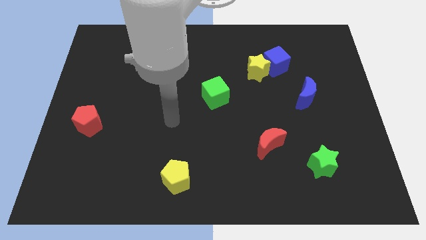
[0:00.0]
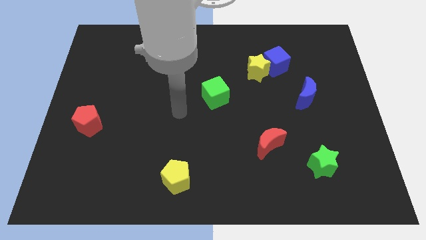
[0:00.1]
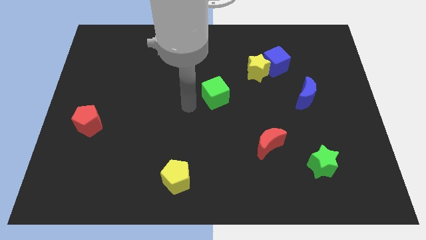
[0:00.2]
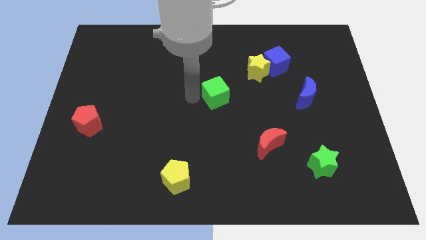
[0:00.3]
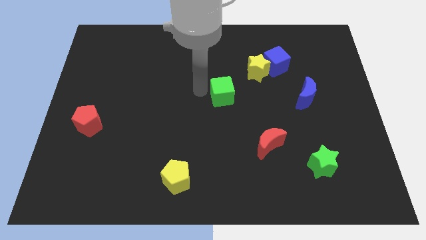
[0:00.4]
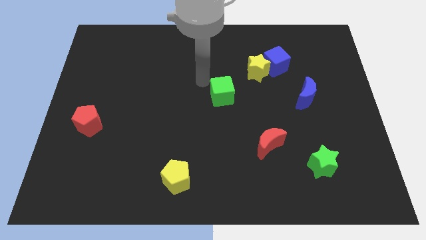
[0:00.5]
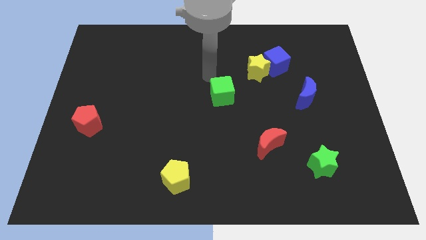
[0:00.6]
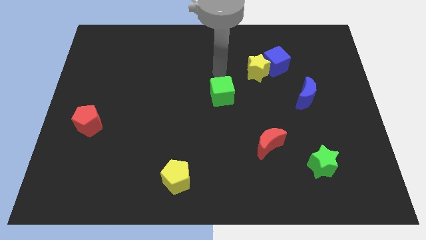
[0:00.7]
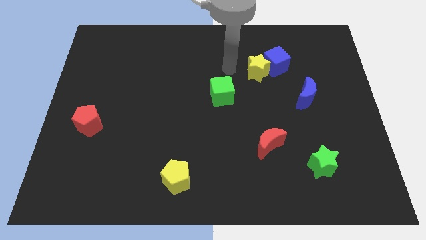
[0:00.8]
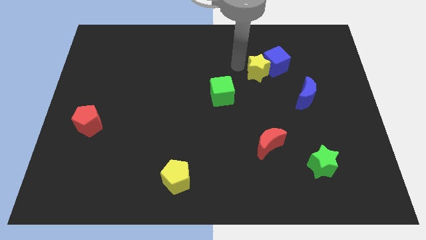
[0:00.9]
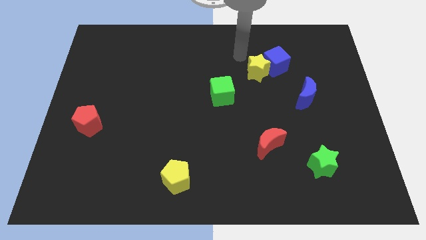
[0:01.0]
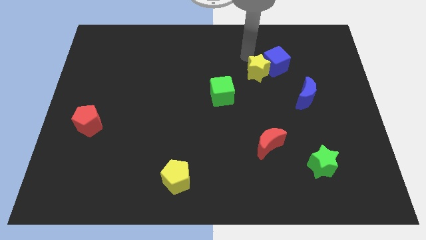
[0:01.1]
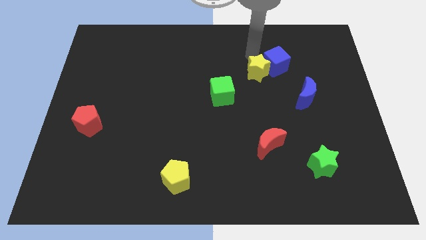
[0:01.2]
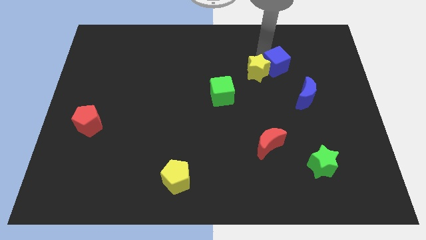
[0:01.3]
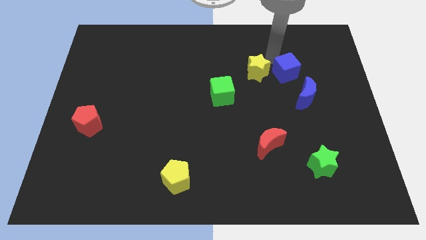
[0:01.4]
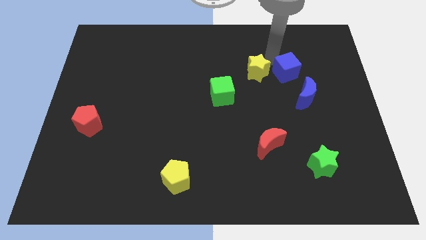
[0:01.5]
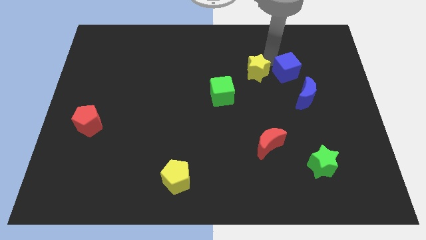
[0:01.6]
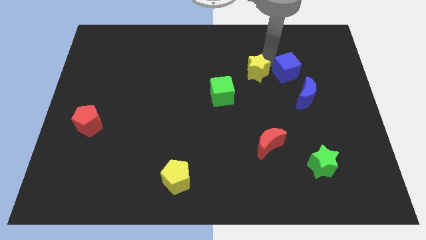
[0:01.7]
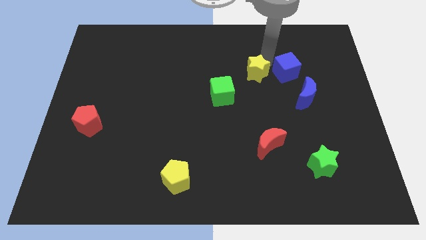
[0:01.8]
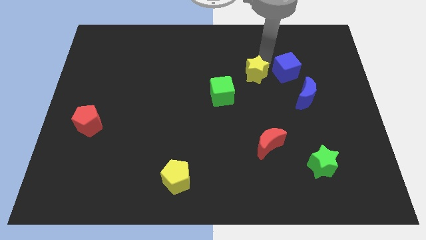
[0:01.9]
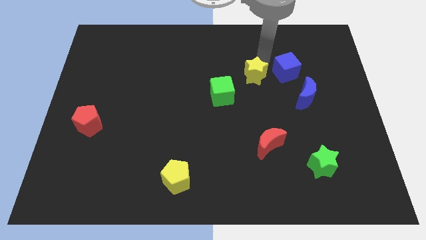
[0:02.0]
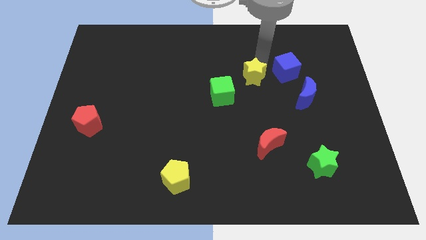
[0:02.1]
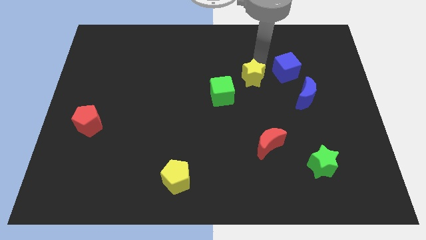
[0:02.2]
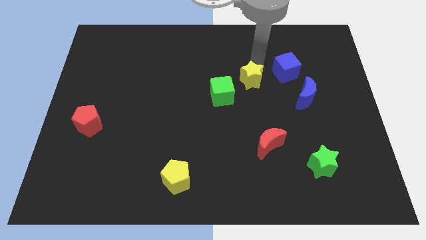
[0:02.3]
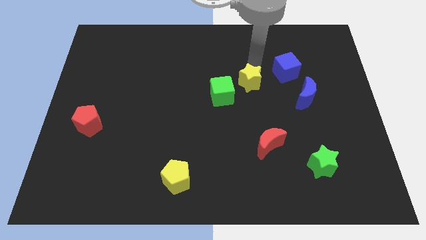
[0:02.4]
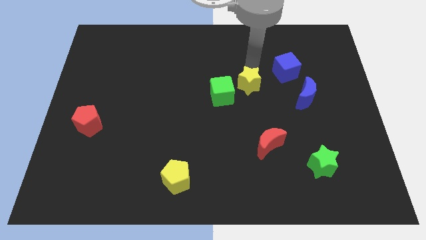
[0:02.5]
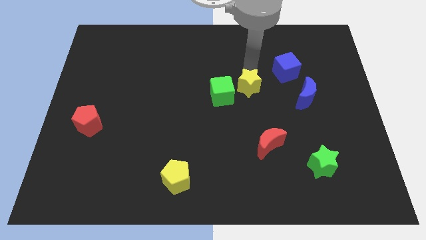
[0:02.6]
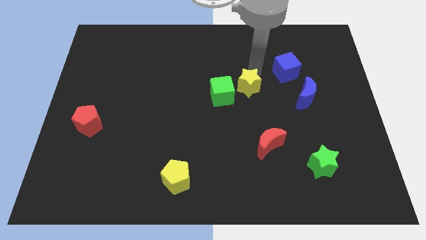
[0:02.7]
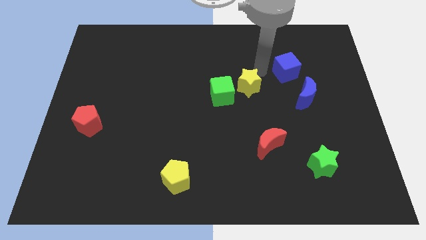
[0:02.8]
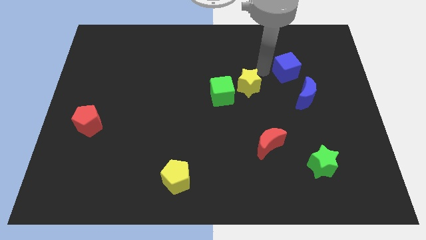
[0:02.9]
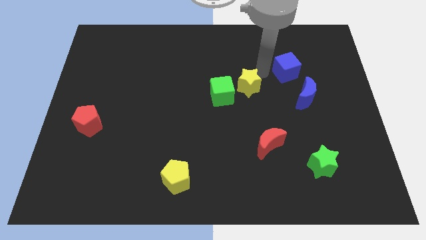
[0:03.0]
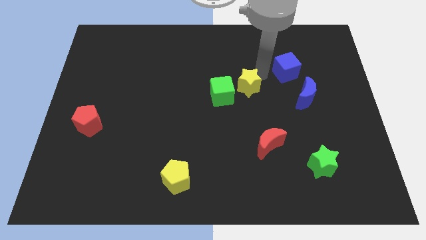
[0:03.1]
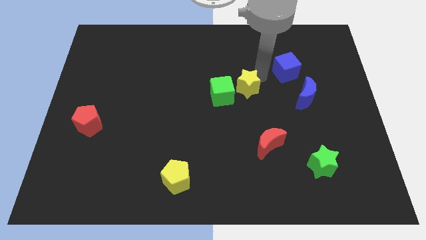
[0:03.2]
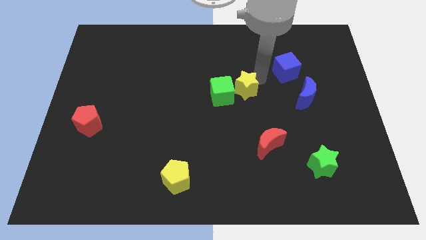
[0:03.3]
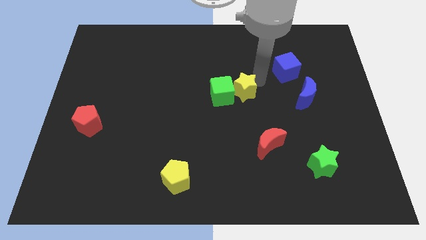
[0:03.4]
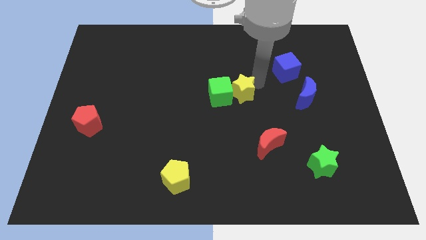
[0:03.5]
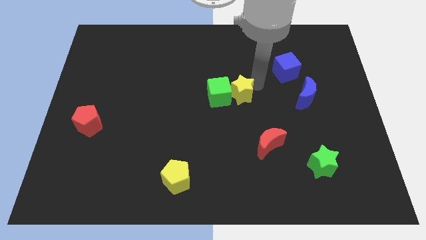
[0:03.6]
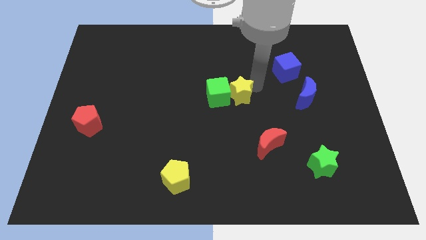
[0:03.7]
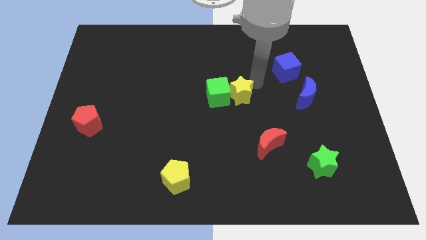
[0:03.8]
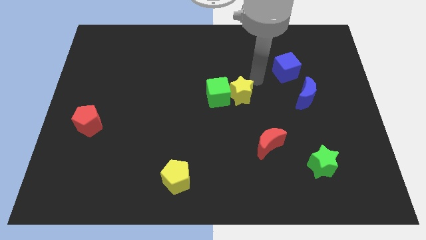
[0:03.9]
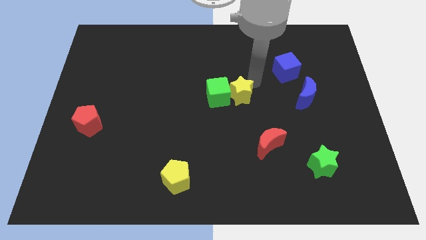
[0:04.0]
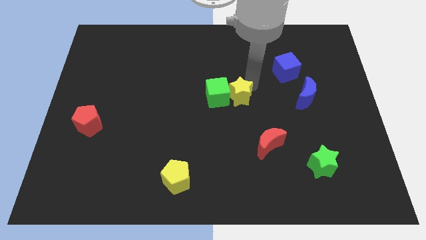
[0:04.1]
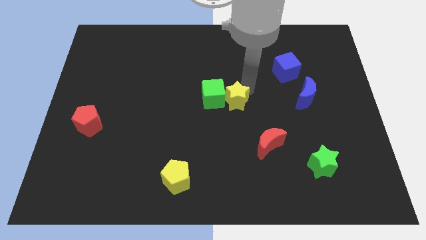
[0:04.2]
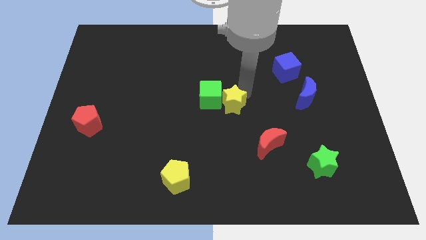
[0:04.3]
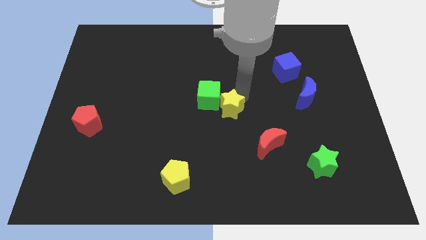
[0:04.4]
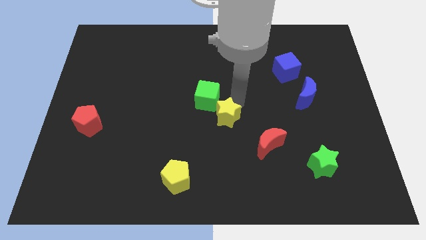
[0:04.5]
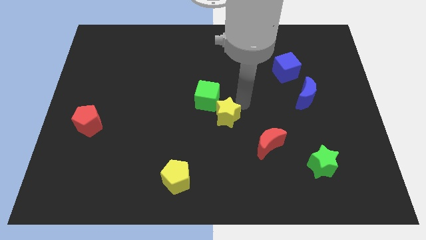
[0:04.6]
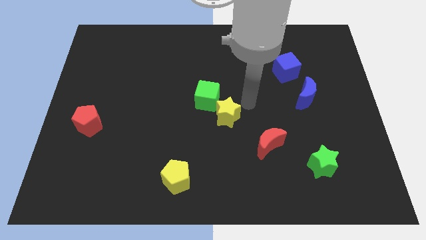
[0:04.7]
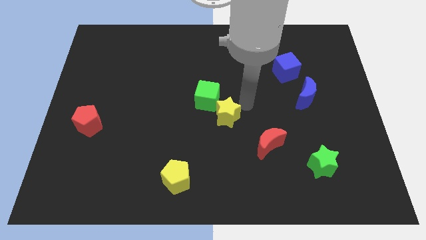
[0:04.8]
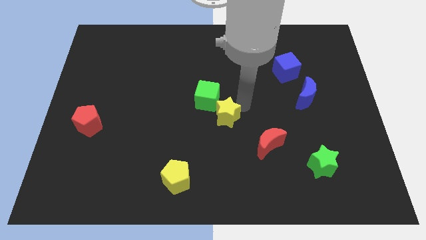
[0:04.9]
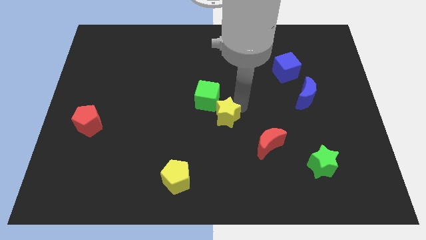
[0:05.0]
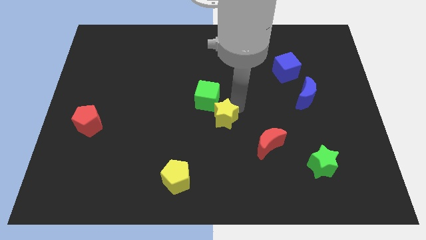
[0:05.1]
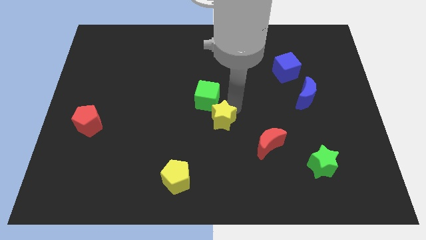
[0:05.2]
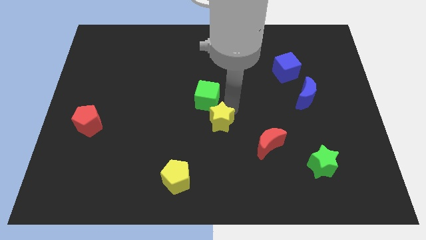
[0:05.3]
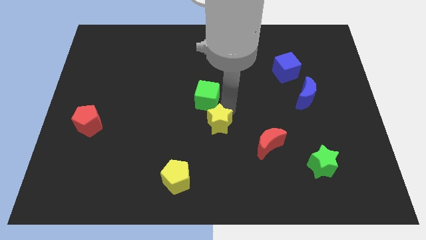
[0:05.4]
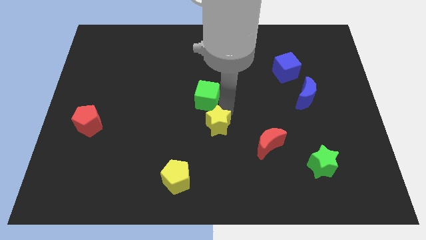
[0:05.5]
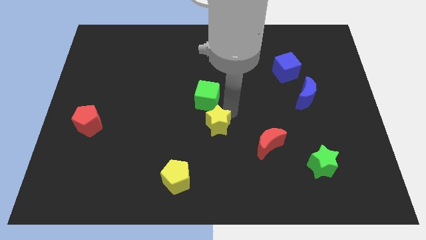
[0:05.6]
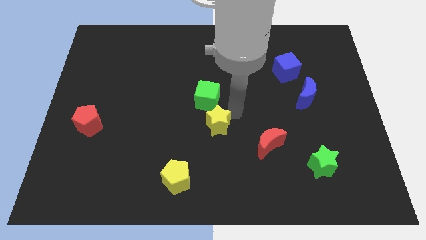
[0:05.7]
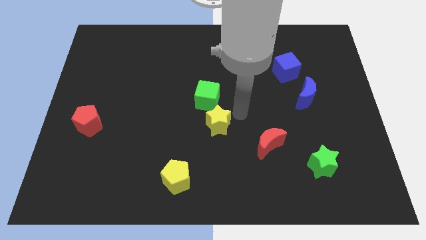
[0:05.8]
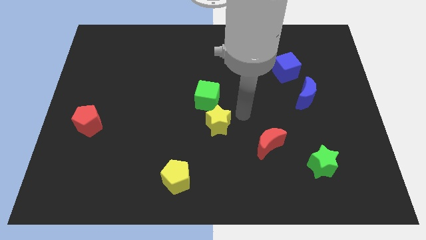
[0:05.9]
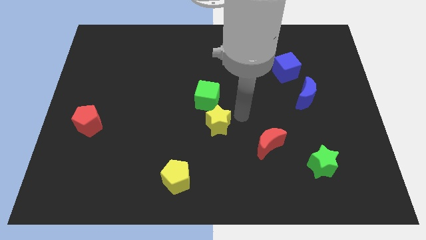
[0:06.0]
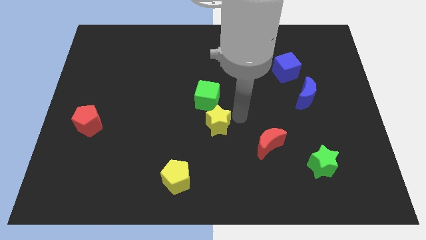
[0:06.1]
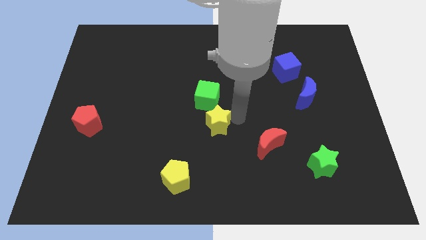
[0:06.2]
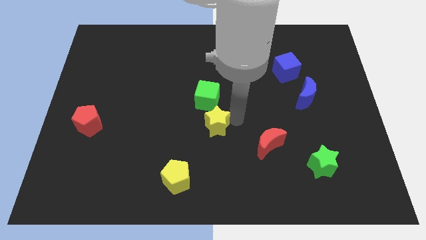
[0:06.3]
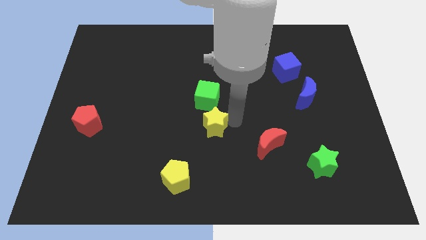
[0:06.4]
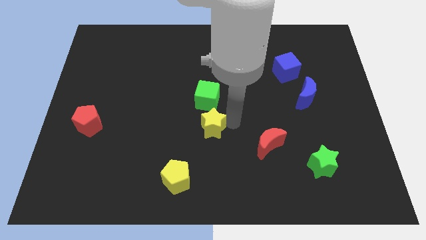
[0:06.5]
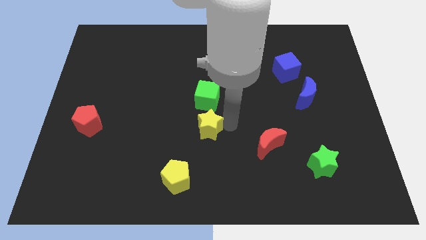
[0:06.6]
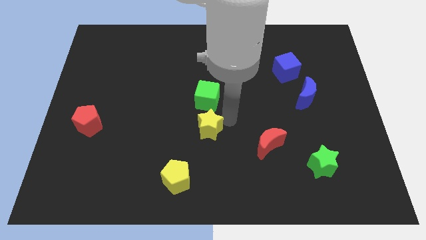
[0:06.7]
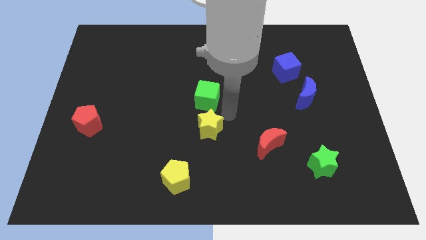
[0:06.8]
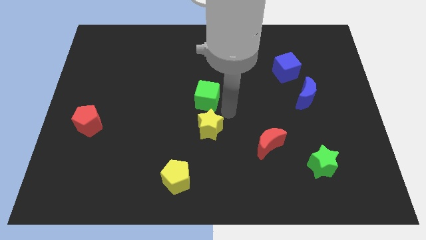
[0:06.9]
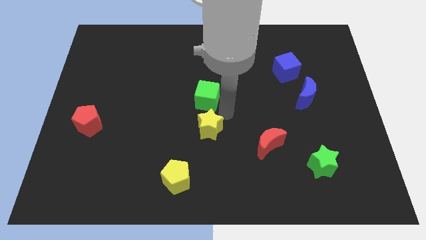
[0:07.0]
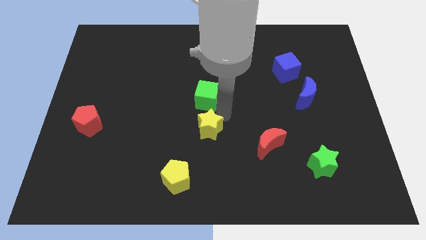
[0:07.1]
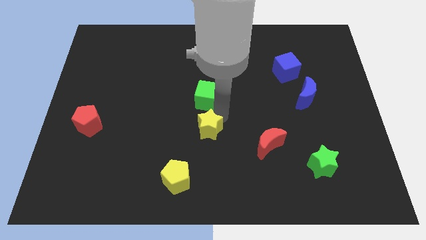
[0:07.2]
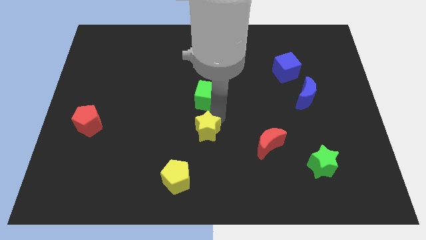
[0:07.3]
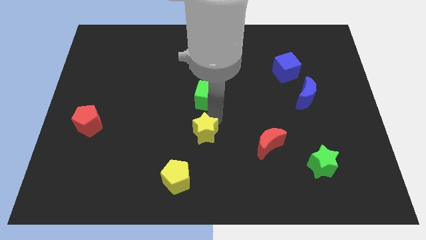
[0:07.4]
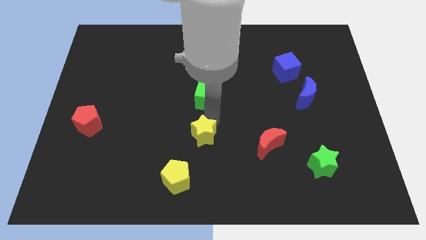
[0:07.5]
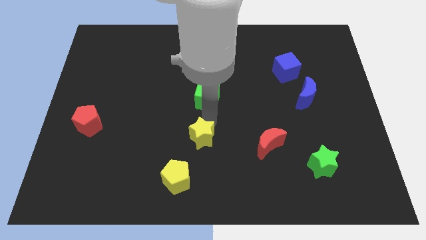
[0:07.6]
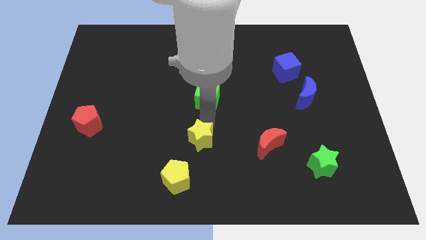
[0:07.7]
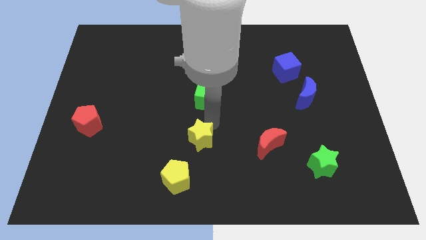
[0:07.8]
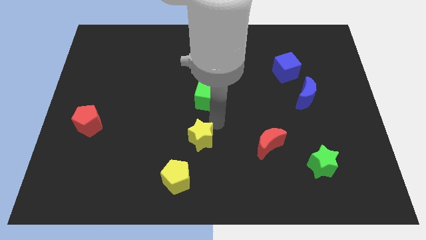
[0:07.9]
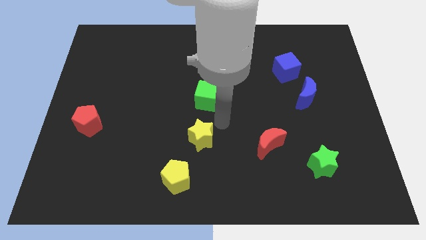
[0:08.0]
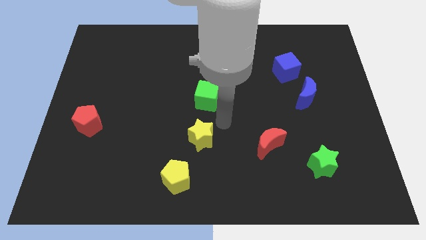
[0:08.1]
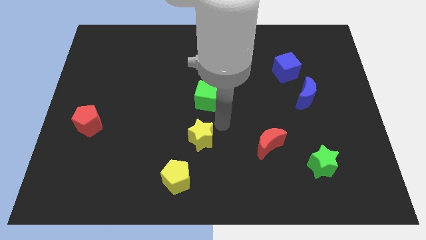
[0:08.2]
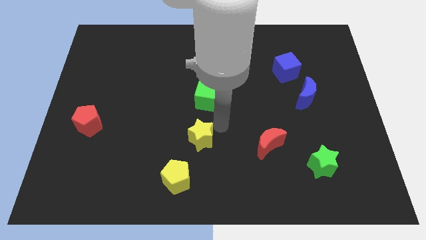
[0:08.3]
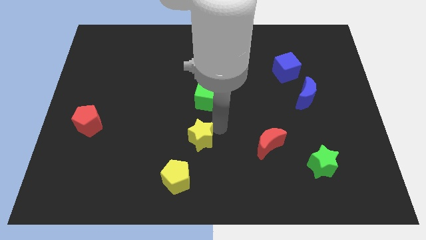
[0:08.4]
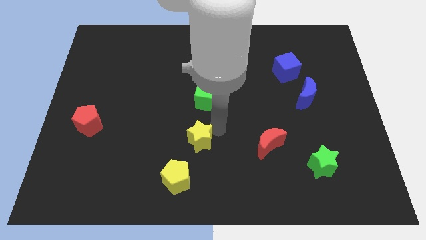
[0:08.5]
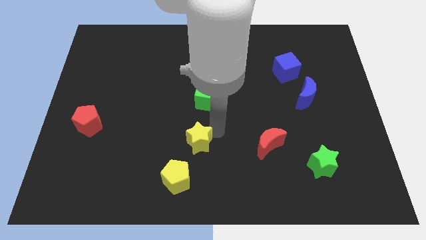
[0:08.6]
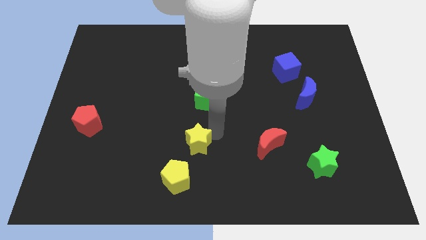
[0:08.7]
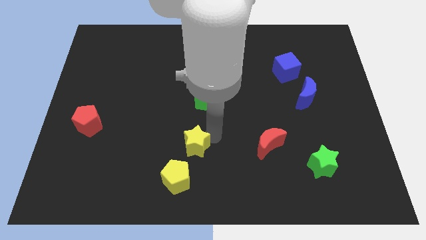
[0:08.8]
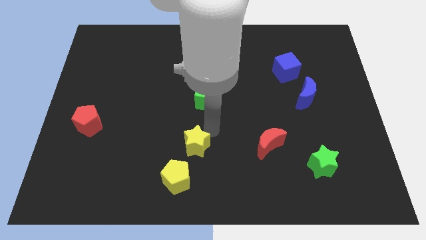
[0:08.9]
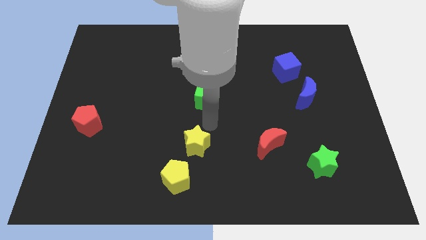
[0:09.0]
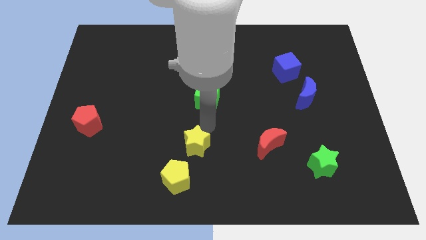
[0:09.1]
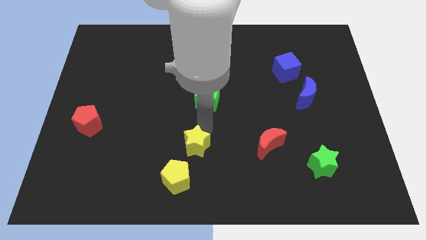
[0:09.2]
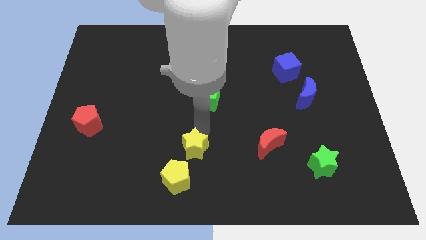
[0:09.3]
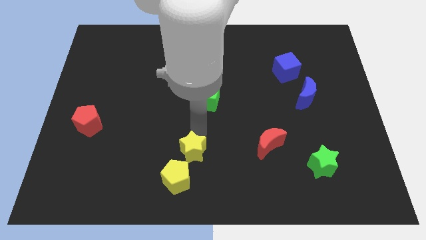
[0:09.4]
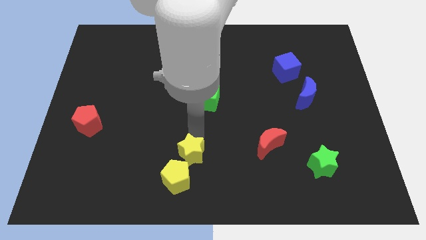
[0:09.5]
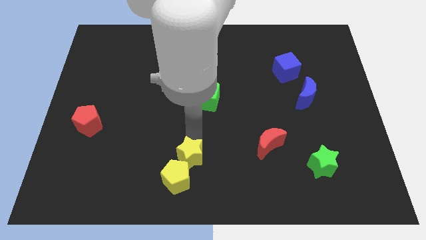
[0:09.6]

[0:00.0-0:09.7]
slide the yellow star close to the yellow pentagon
